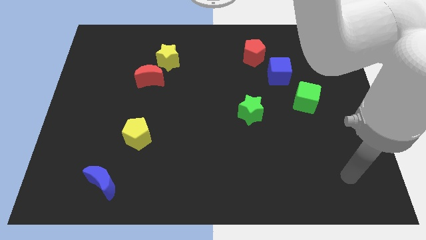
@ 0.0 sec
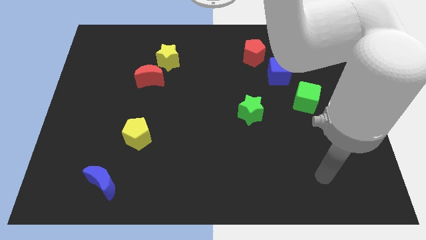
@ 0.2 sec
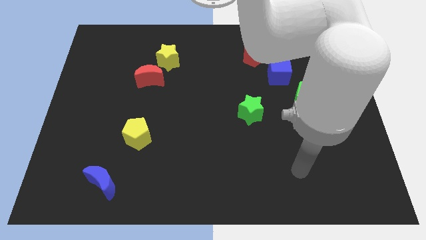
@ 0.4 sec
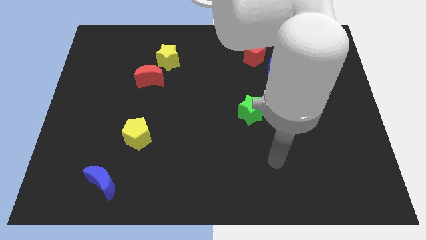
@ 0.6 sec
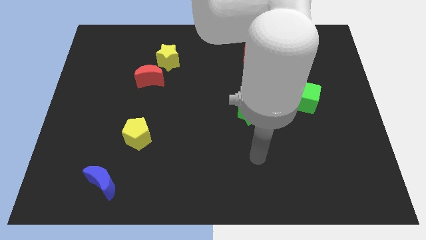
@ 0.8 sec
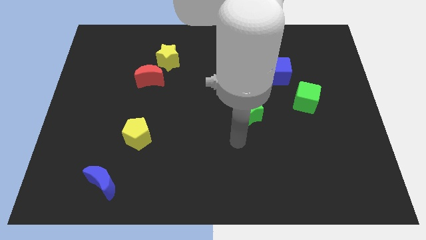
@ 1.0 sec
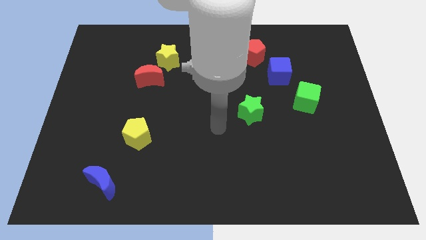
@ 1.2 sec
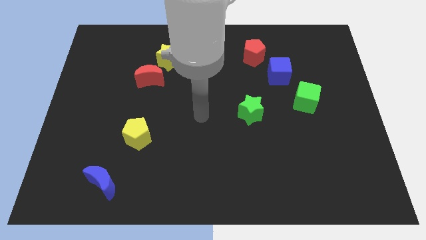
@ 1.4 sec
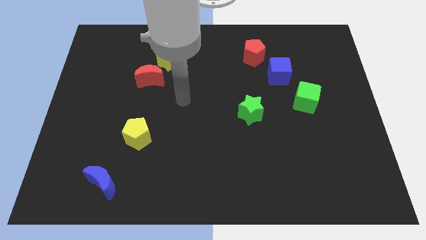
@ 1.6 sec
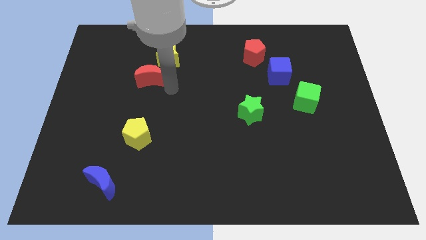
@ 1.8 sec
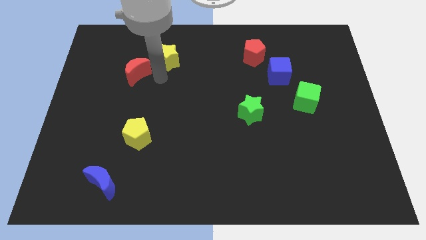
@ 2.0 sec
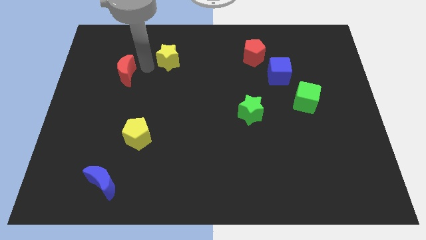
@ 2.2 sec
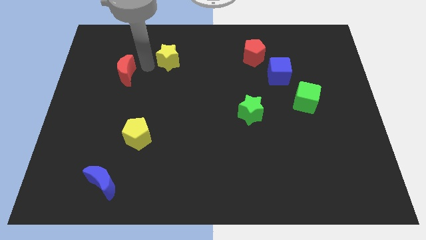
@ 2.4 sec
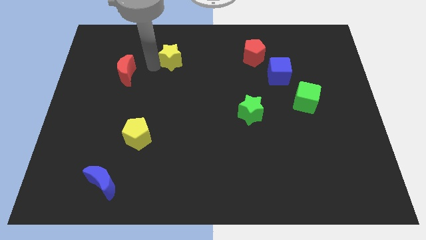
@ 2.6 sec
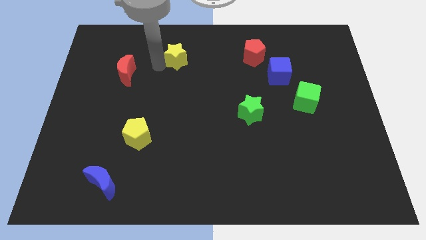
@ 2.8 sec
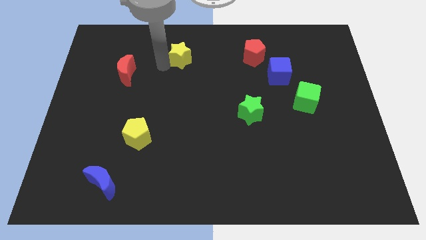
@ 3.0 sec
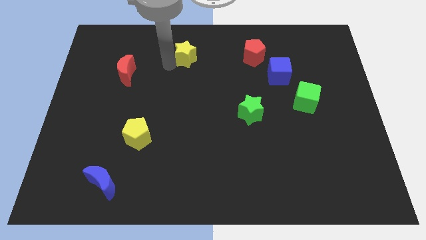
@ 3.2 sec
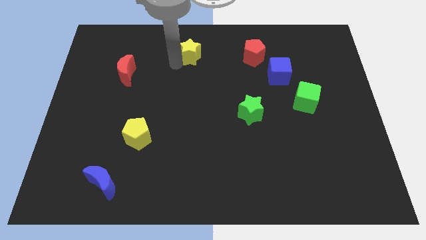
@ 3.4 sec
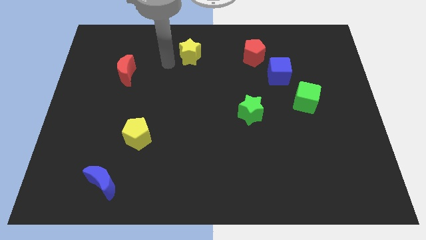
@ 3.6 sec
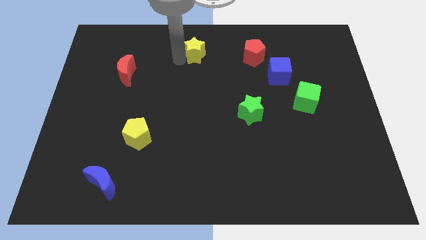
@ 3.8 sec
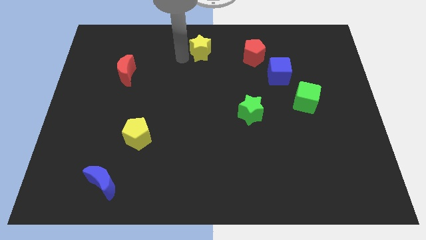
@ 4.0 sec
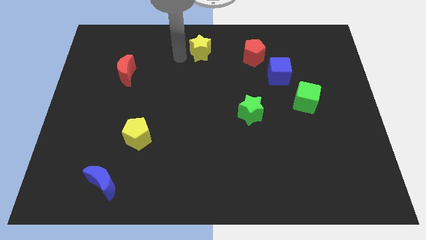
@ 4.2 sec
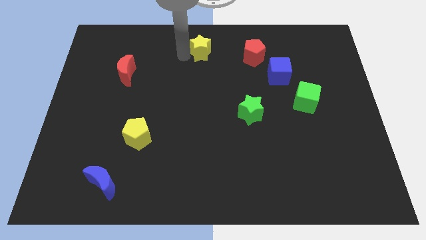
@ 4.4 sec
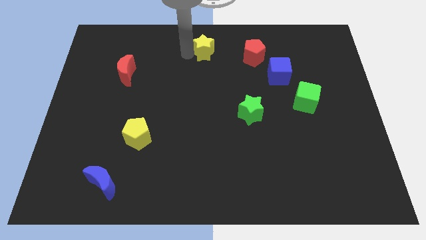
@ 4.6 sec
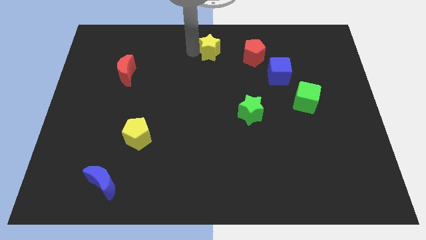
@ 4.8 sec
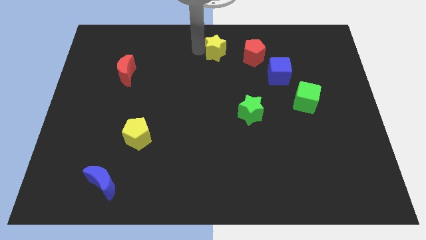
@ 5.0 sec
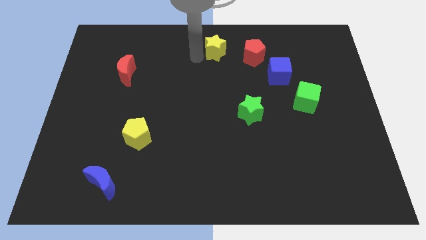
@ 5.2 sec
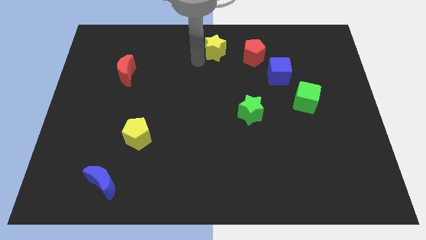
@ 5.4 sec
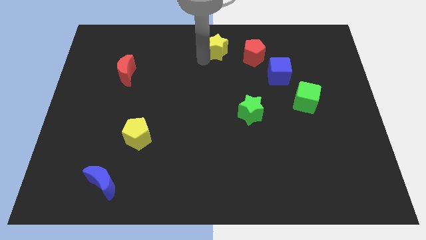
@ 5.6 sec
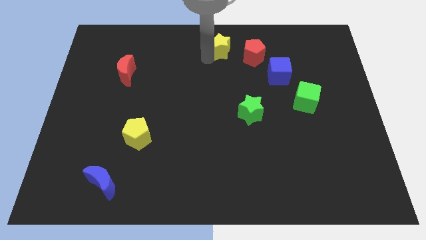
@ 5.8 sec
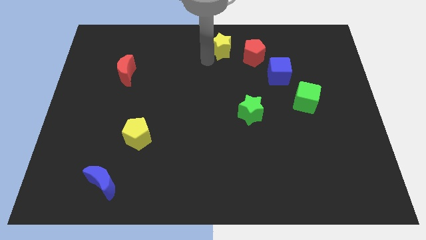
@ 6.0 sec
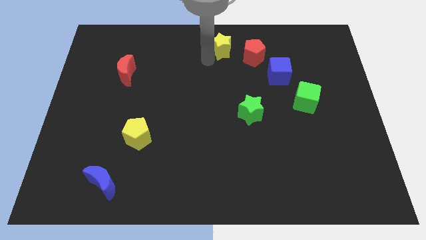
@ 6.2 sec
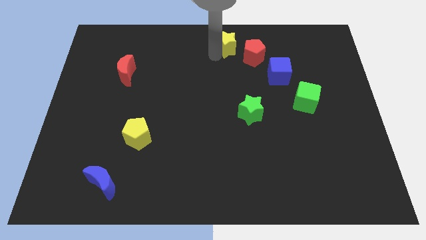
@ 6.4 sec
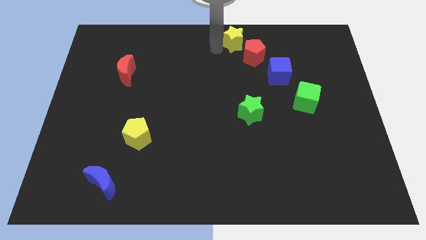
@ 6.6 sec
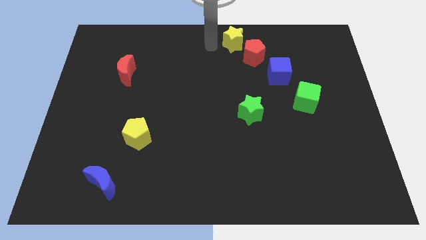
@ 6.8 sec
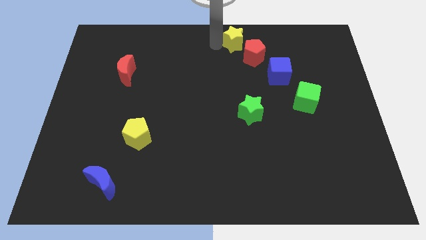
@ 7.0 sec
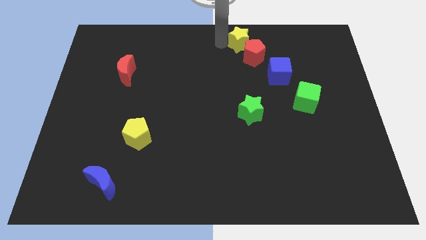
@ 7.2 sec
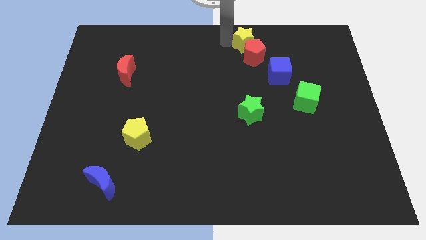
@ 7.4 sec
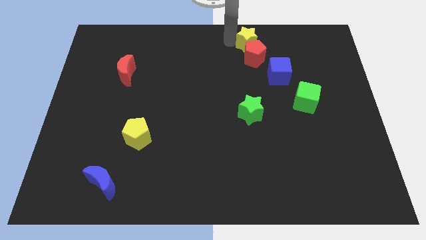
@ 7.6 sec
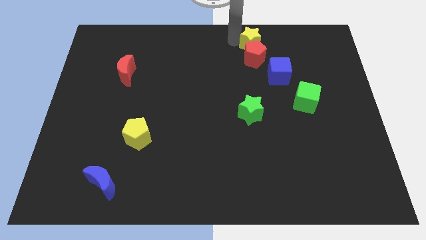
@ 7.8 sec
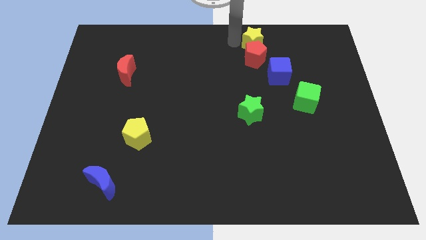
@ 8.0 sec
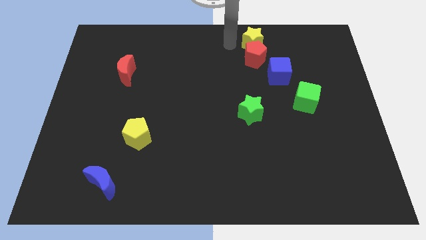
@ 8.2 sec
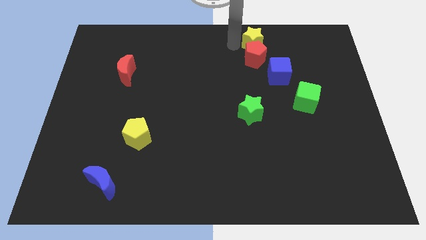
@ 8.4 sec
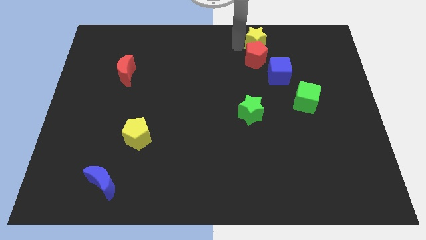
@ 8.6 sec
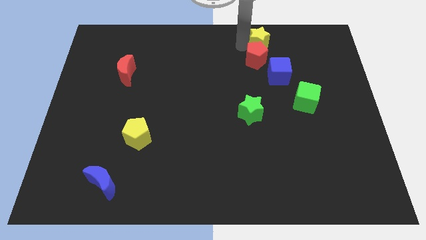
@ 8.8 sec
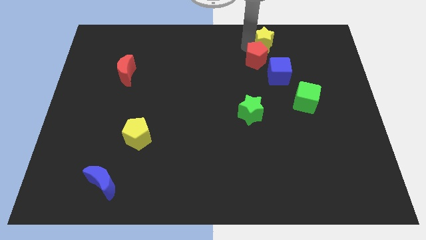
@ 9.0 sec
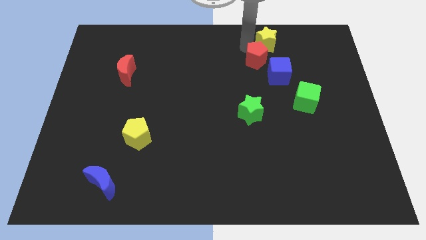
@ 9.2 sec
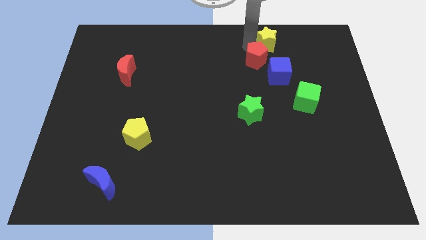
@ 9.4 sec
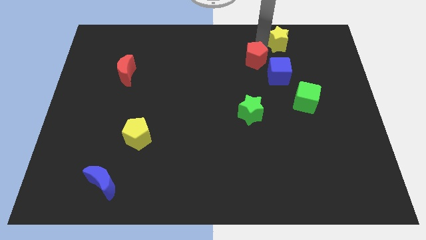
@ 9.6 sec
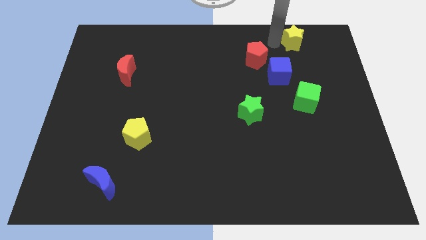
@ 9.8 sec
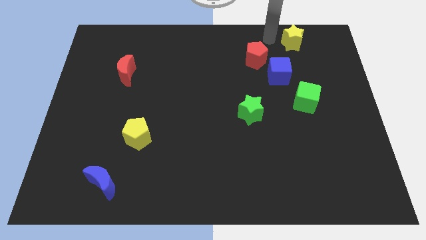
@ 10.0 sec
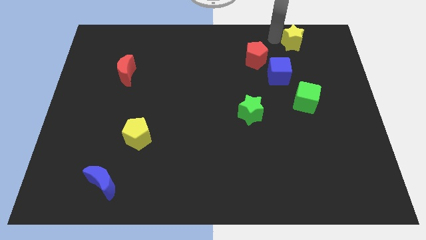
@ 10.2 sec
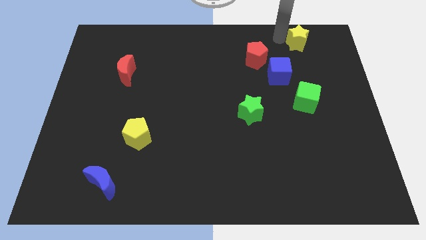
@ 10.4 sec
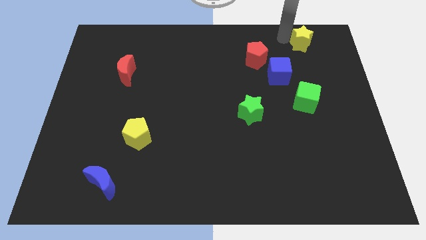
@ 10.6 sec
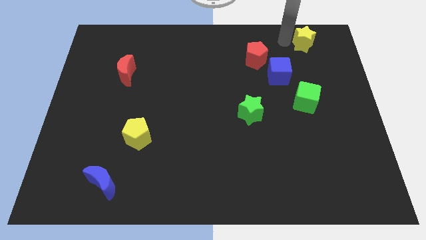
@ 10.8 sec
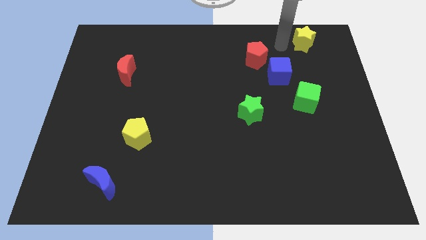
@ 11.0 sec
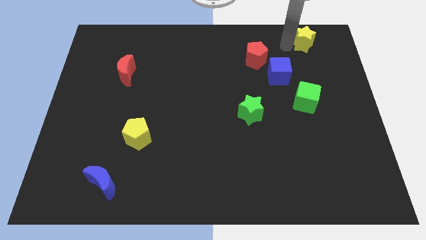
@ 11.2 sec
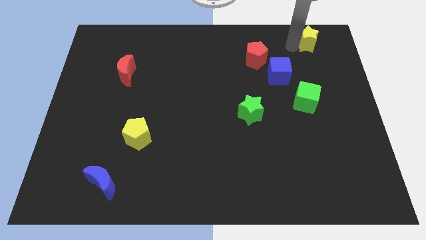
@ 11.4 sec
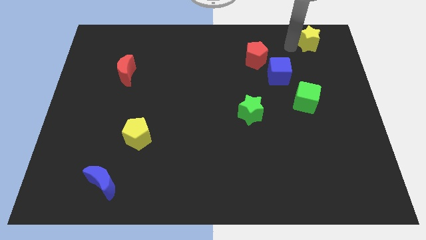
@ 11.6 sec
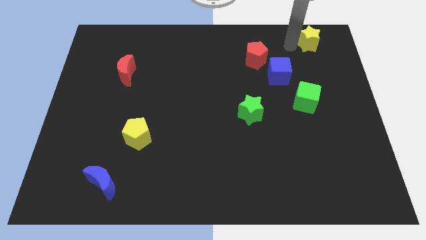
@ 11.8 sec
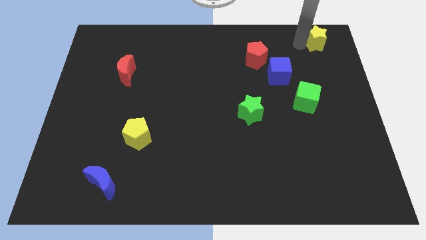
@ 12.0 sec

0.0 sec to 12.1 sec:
push the yellow star to the top right of the board

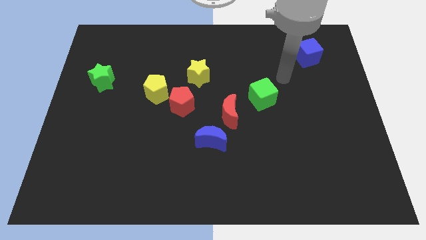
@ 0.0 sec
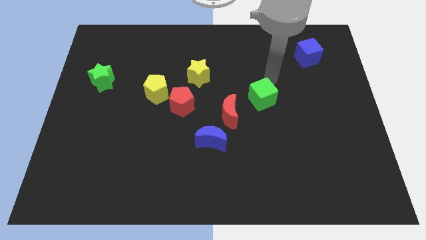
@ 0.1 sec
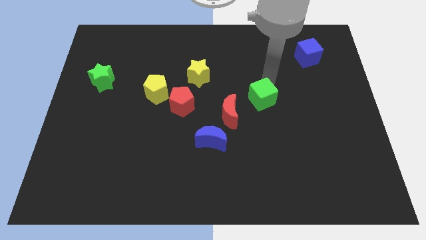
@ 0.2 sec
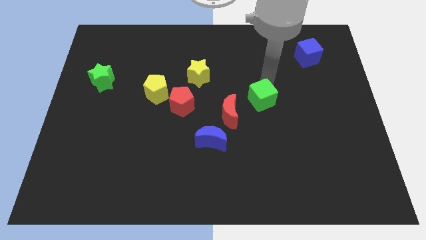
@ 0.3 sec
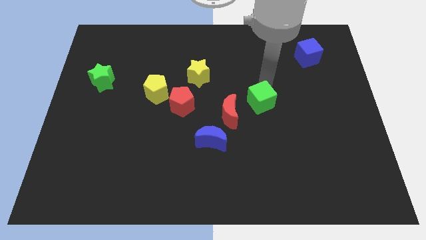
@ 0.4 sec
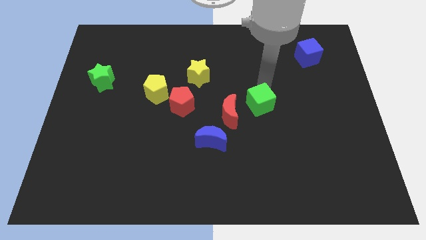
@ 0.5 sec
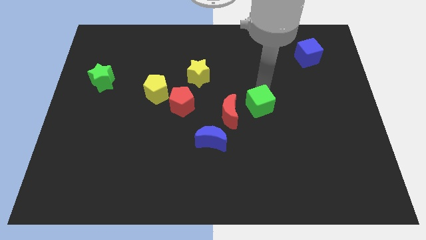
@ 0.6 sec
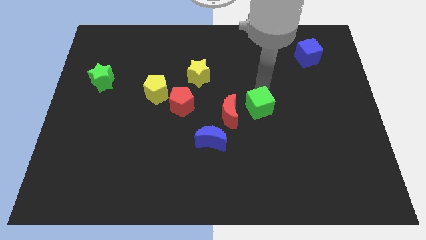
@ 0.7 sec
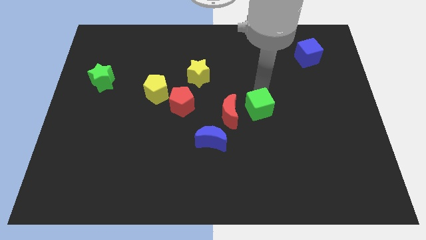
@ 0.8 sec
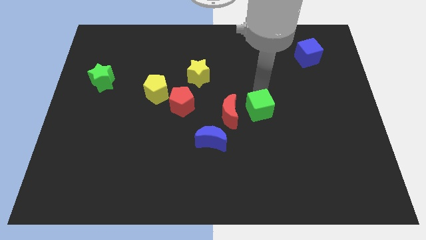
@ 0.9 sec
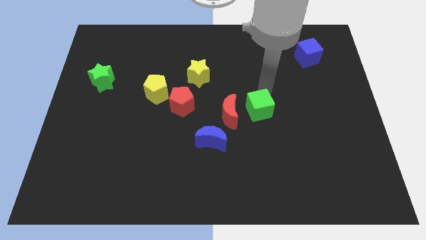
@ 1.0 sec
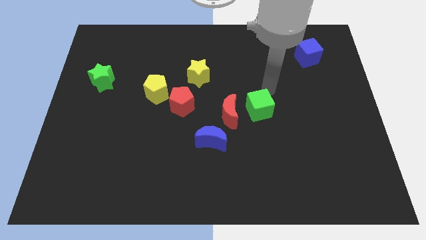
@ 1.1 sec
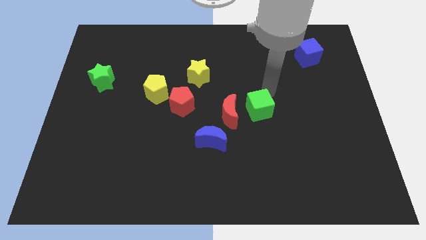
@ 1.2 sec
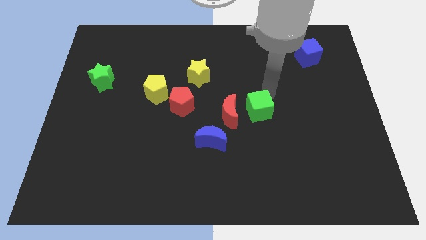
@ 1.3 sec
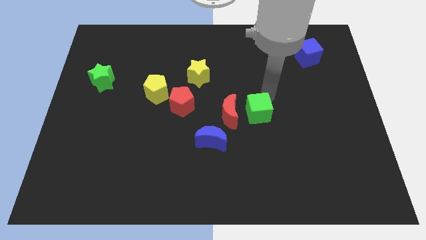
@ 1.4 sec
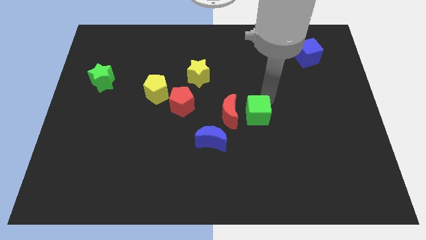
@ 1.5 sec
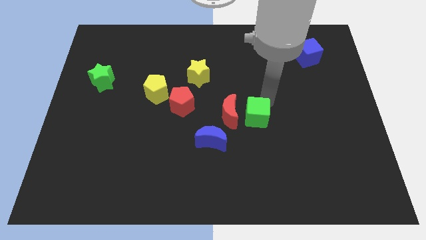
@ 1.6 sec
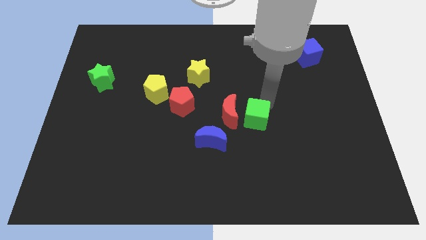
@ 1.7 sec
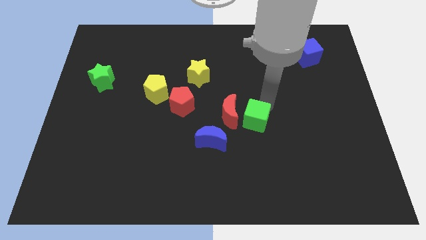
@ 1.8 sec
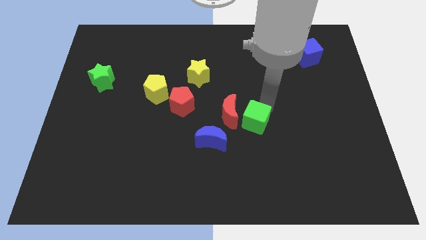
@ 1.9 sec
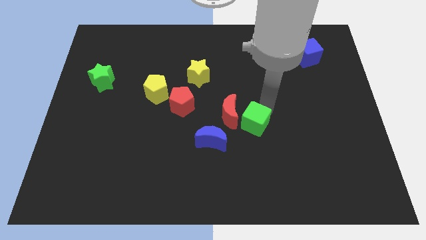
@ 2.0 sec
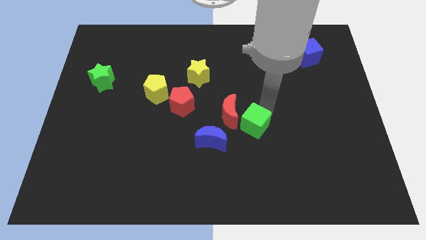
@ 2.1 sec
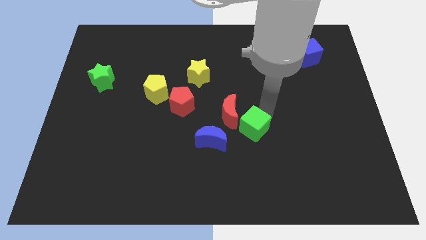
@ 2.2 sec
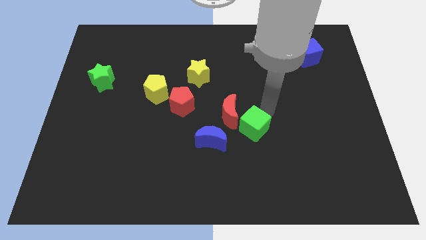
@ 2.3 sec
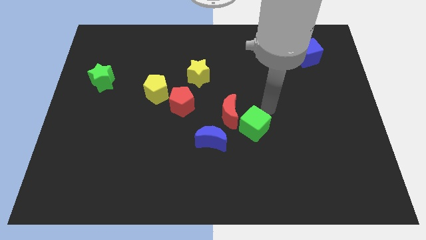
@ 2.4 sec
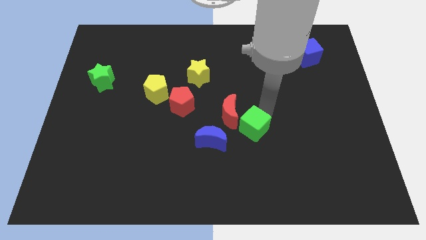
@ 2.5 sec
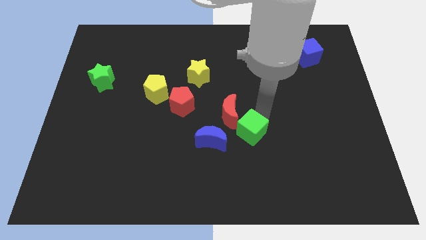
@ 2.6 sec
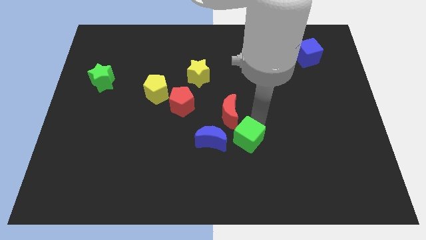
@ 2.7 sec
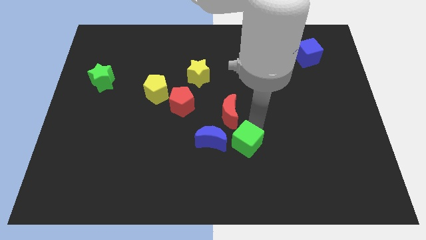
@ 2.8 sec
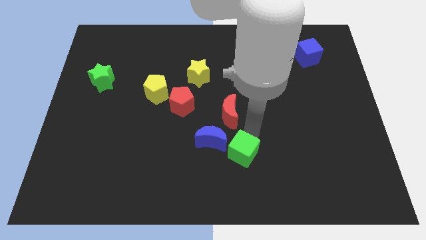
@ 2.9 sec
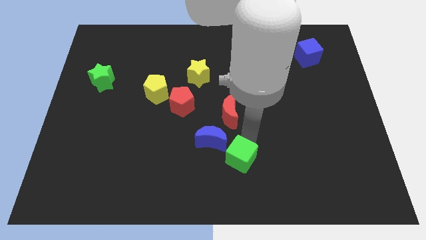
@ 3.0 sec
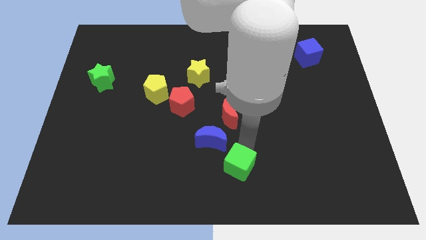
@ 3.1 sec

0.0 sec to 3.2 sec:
move the green cube to the bottom side
